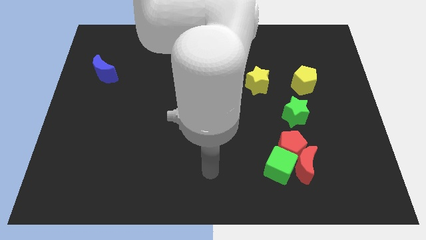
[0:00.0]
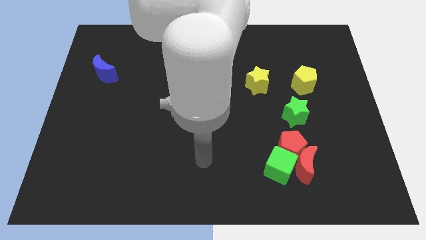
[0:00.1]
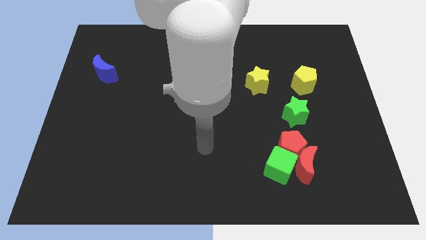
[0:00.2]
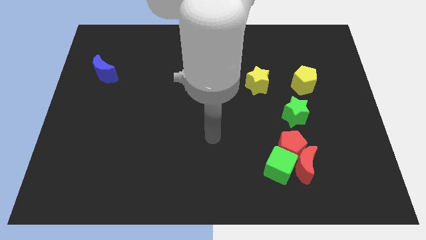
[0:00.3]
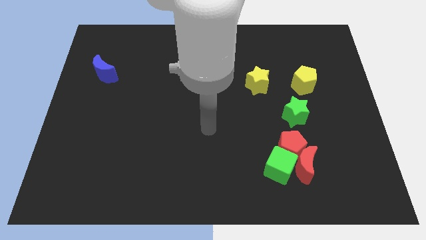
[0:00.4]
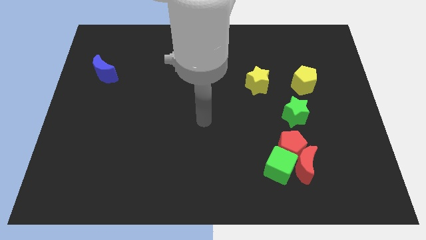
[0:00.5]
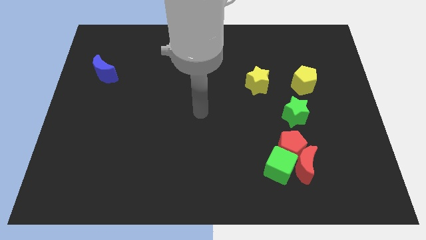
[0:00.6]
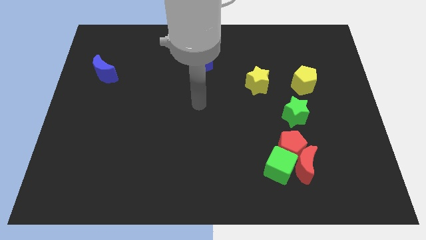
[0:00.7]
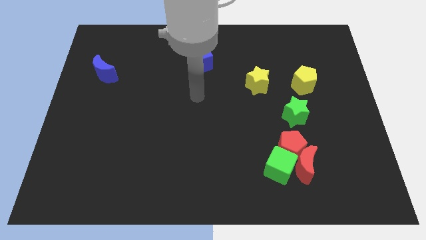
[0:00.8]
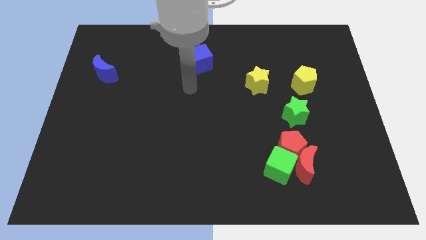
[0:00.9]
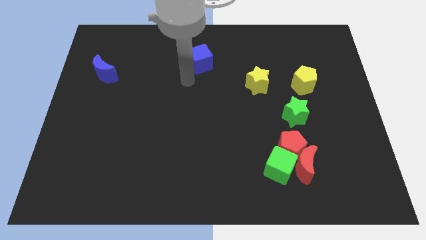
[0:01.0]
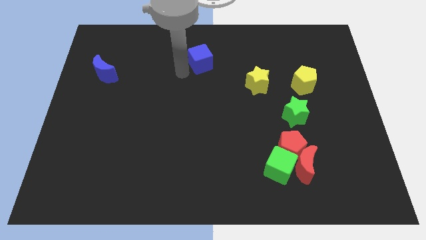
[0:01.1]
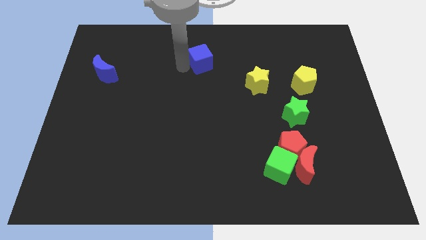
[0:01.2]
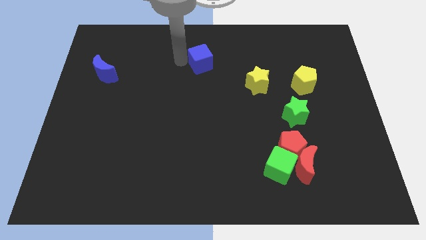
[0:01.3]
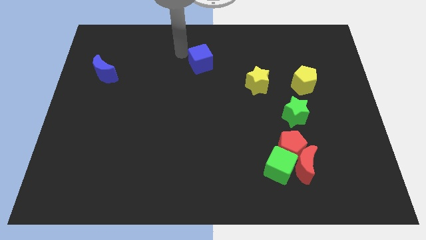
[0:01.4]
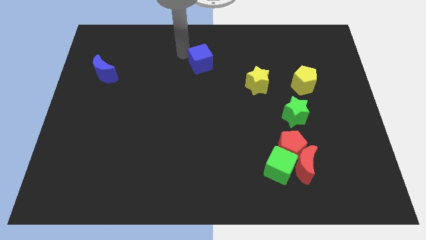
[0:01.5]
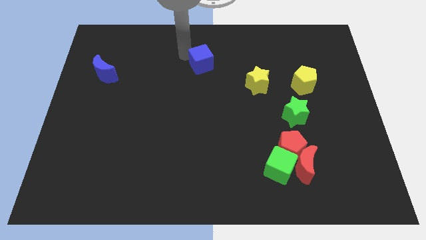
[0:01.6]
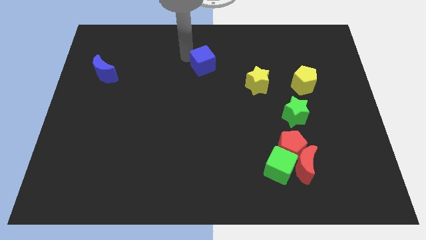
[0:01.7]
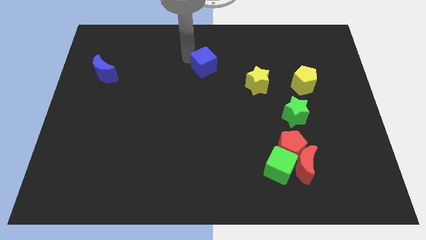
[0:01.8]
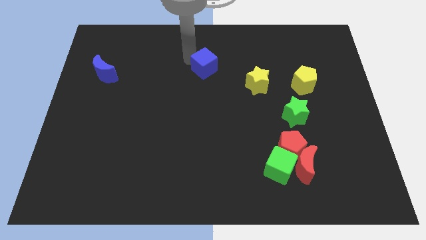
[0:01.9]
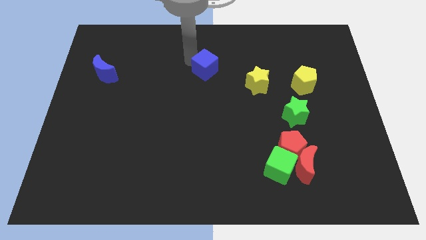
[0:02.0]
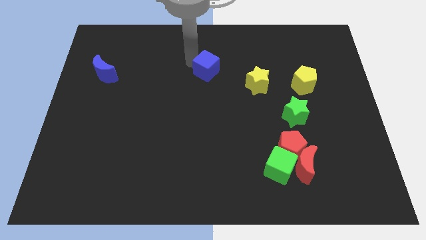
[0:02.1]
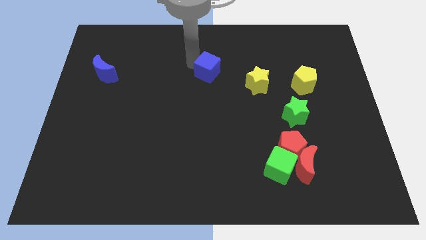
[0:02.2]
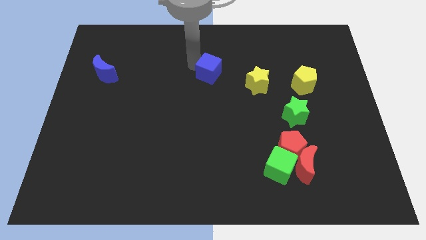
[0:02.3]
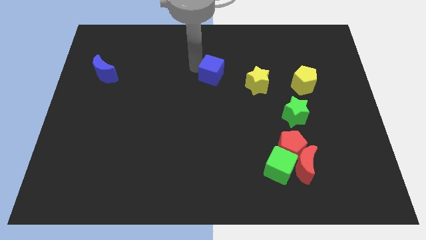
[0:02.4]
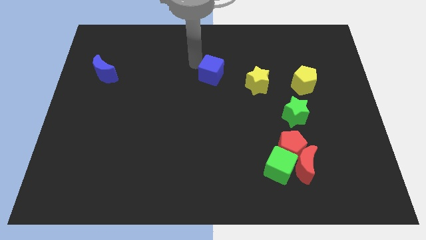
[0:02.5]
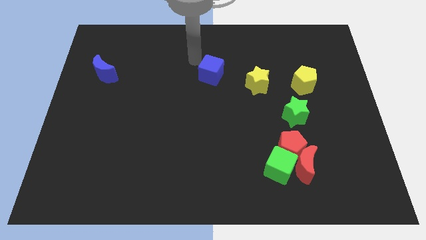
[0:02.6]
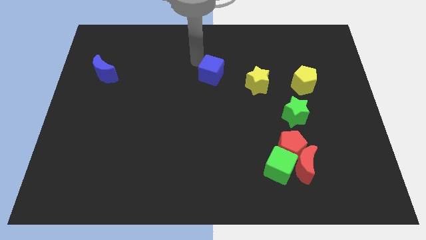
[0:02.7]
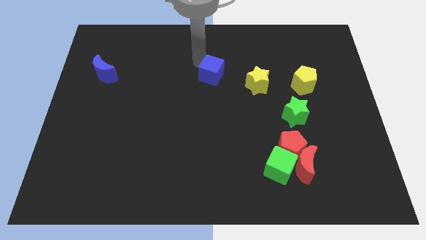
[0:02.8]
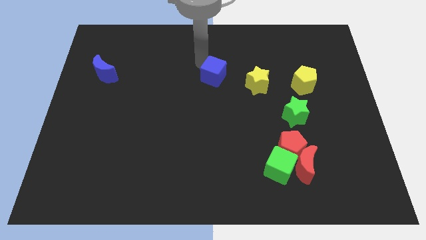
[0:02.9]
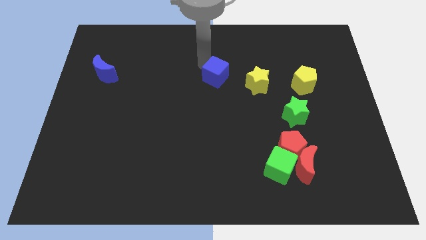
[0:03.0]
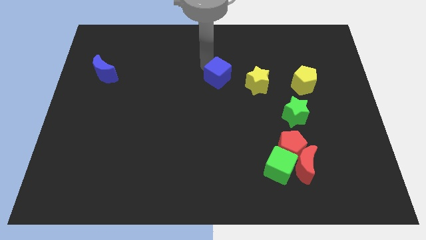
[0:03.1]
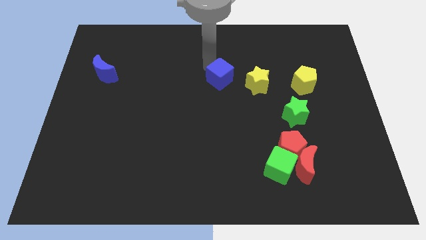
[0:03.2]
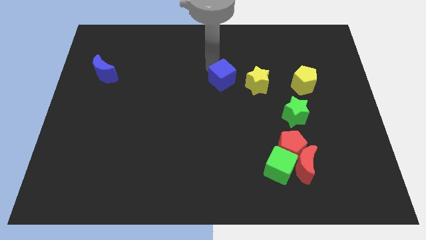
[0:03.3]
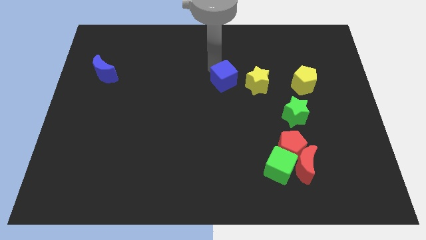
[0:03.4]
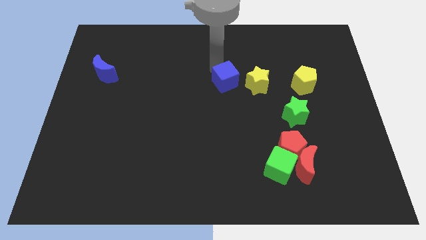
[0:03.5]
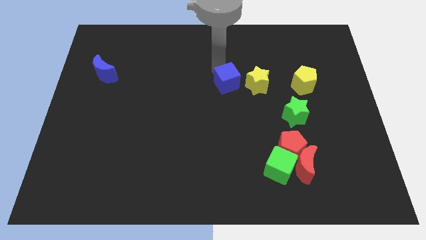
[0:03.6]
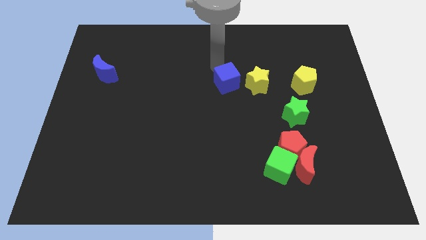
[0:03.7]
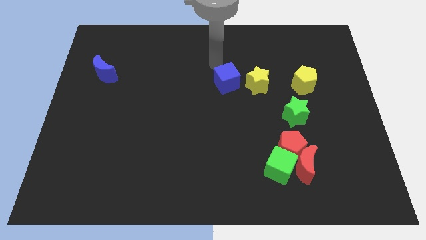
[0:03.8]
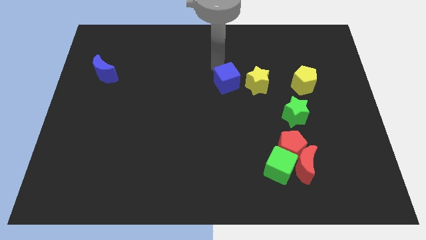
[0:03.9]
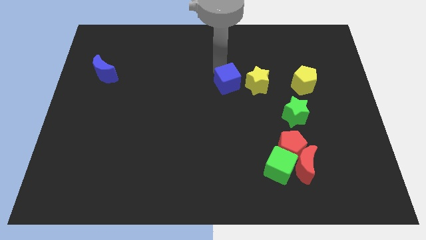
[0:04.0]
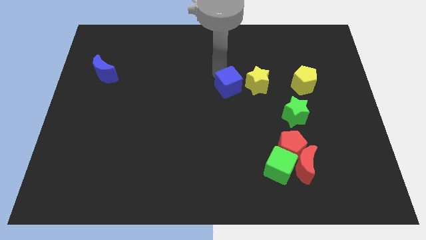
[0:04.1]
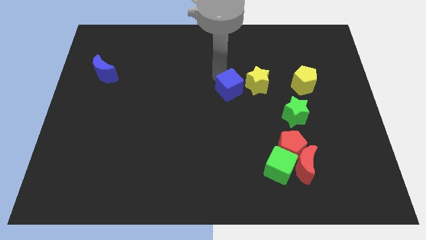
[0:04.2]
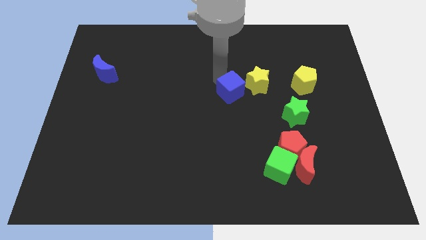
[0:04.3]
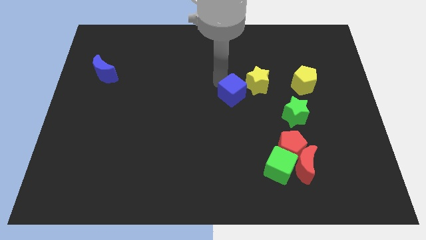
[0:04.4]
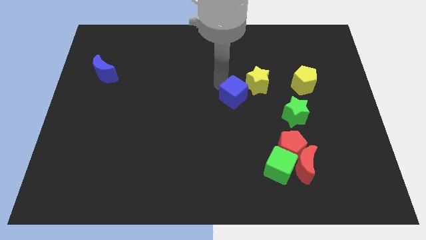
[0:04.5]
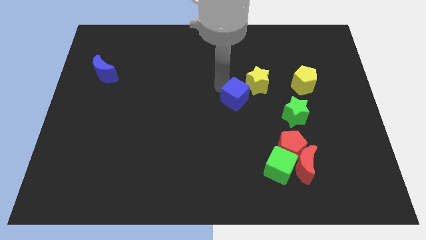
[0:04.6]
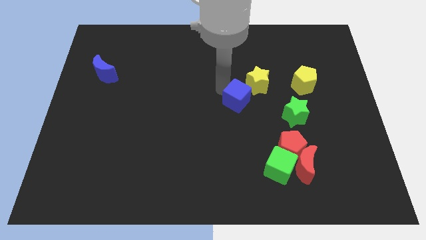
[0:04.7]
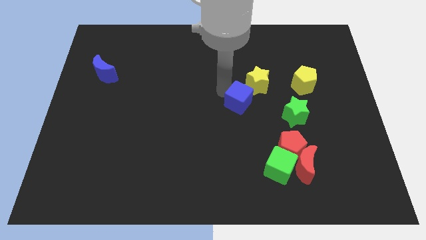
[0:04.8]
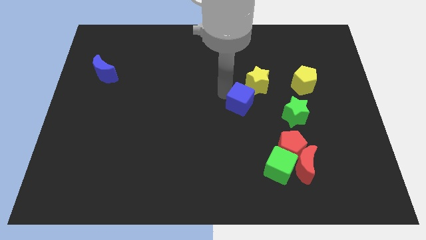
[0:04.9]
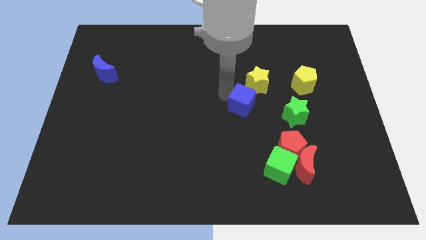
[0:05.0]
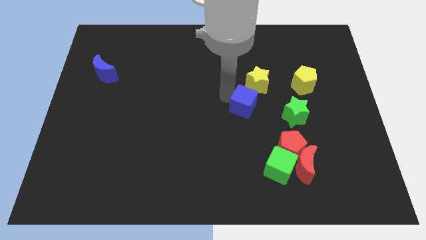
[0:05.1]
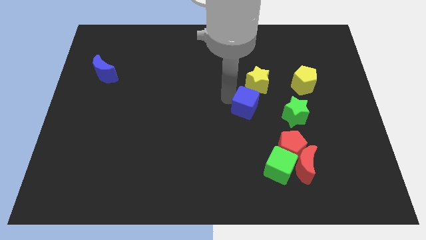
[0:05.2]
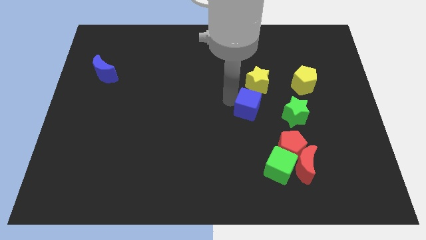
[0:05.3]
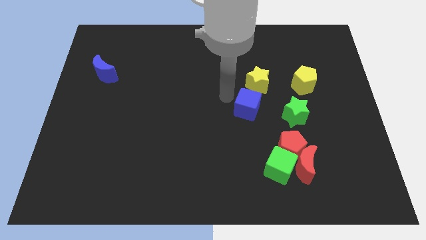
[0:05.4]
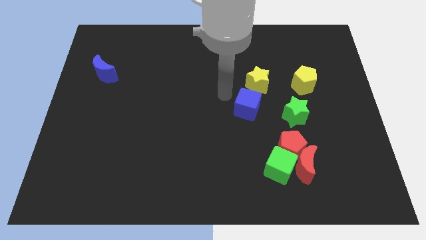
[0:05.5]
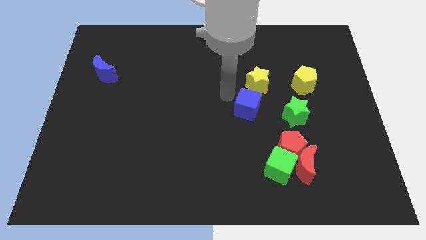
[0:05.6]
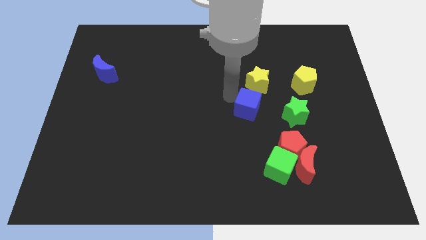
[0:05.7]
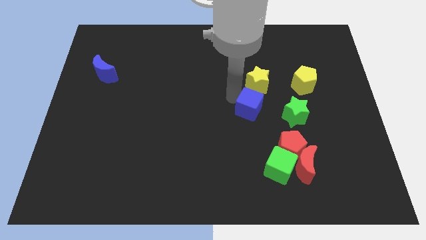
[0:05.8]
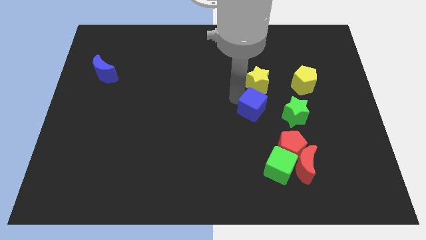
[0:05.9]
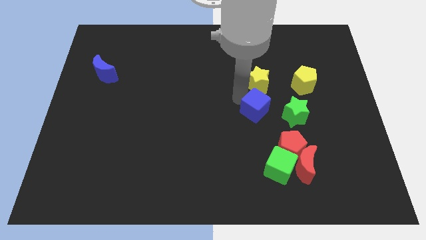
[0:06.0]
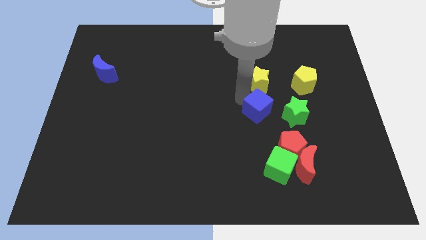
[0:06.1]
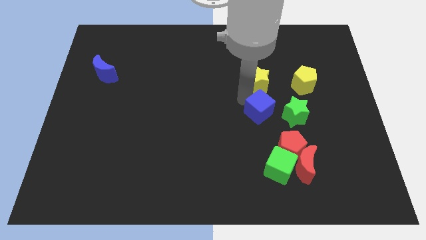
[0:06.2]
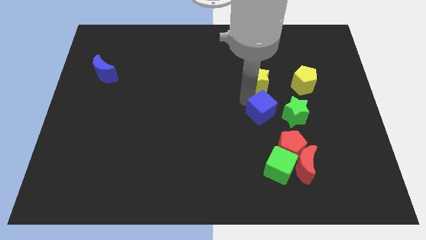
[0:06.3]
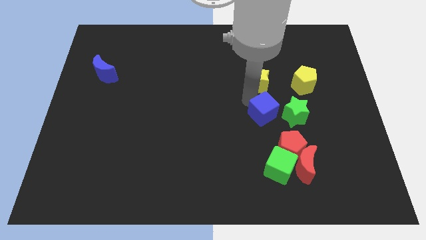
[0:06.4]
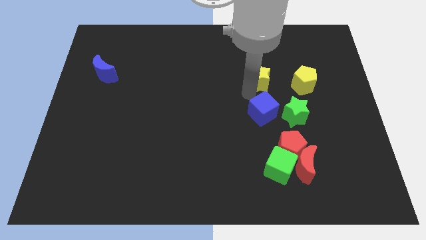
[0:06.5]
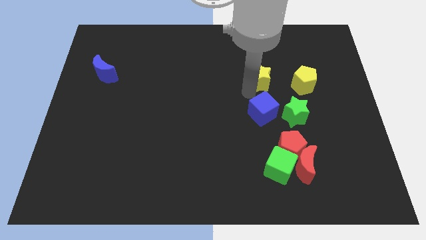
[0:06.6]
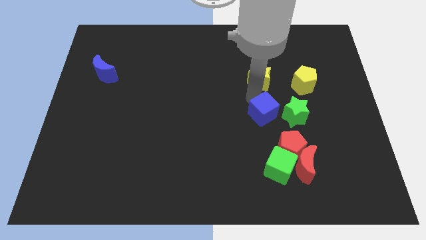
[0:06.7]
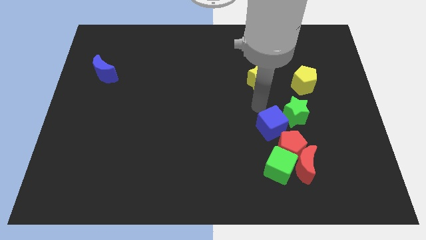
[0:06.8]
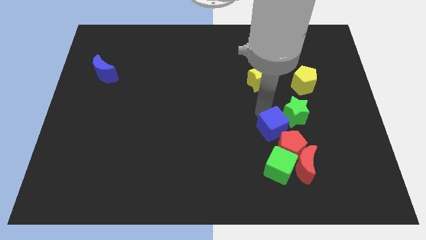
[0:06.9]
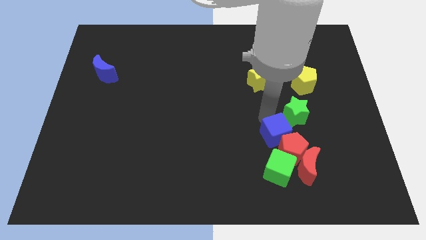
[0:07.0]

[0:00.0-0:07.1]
slide the blue cube next to the red pentagon
